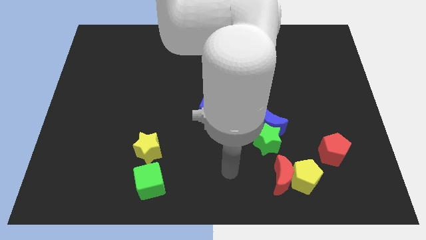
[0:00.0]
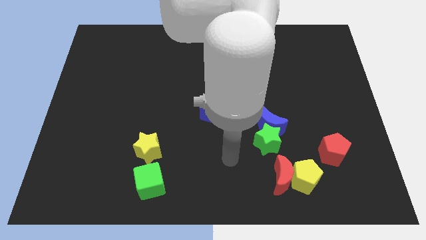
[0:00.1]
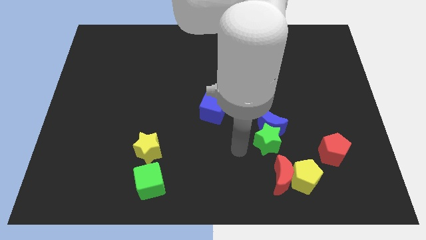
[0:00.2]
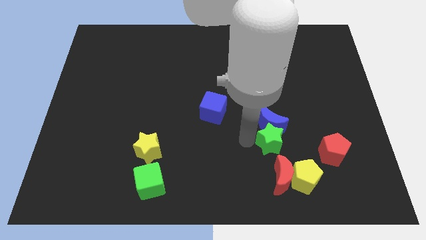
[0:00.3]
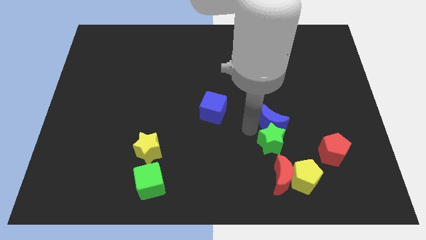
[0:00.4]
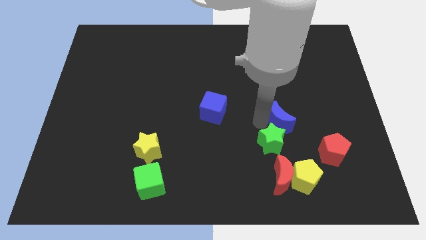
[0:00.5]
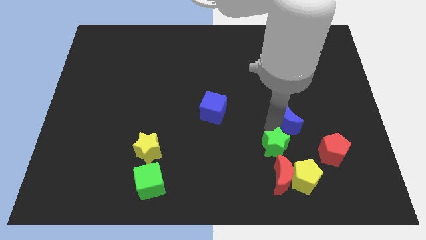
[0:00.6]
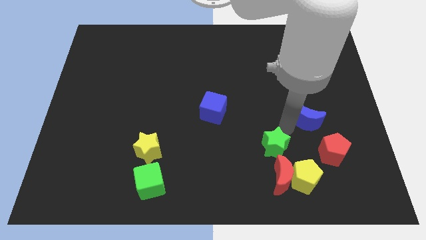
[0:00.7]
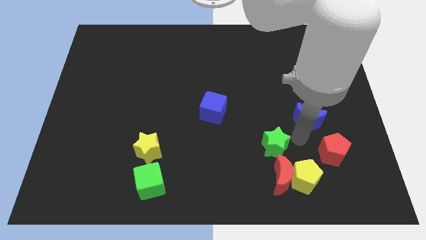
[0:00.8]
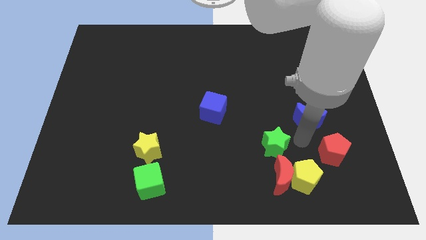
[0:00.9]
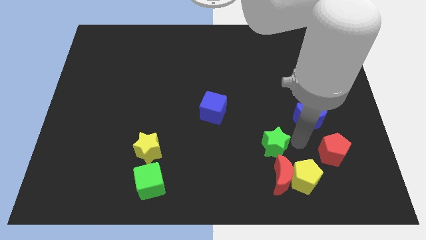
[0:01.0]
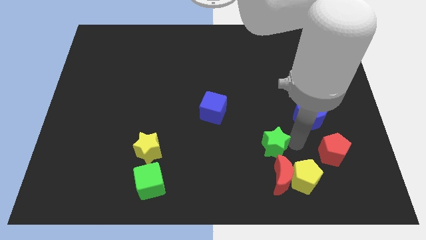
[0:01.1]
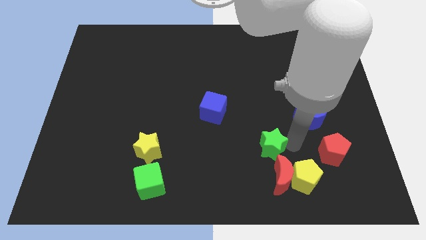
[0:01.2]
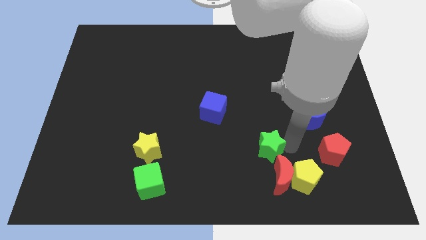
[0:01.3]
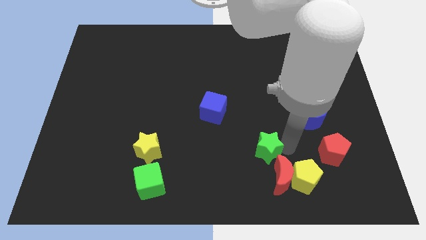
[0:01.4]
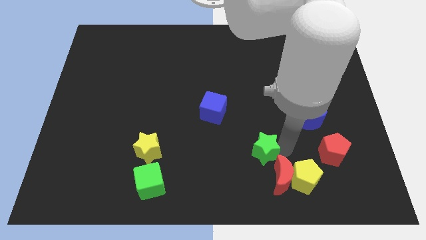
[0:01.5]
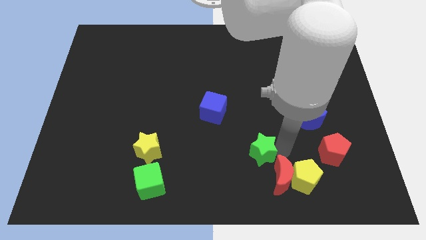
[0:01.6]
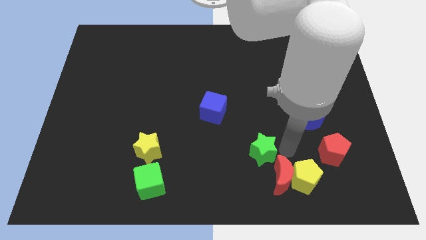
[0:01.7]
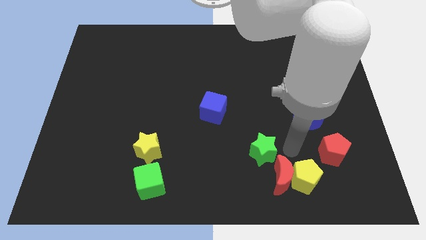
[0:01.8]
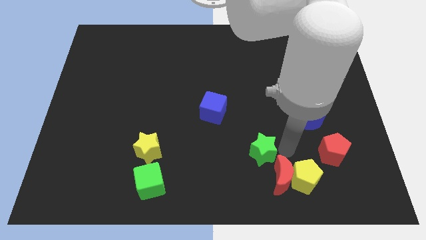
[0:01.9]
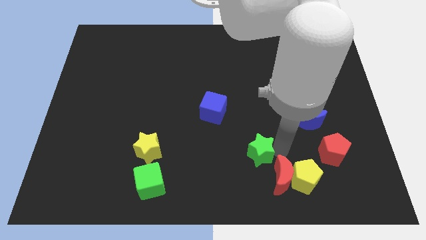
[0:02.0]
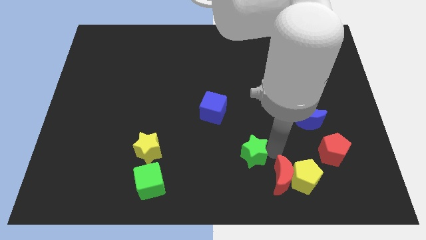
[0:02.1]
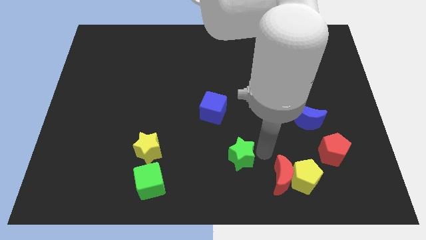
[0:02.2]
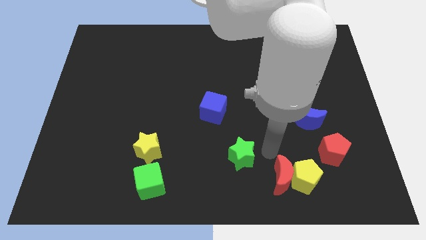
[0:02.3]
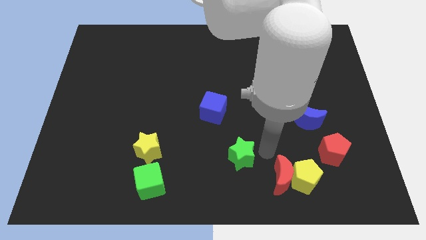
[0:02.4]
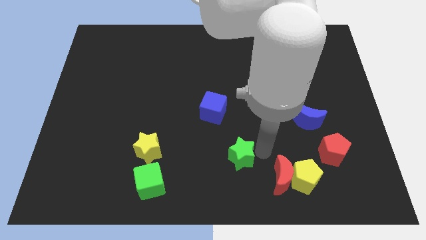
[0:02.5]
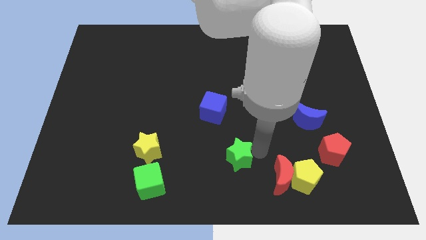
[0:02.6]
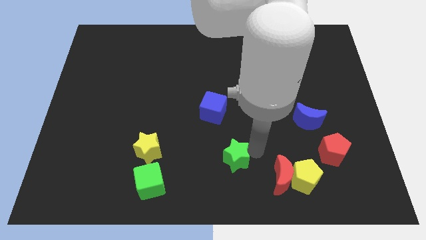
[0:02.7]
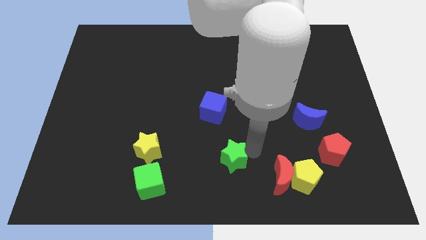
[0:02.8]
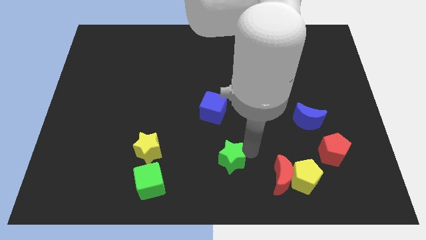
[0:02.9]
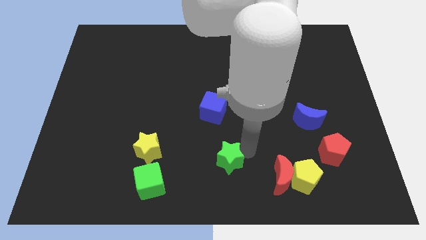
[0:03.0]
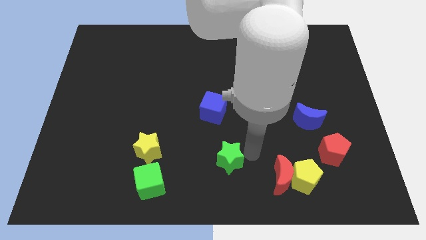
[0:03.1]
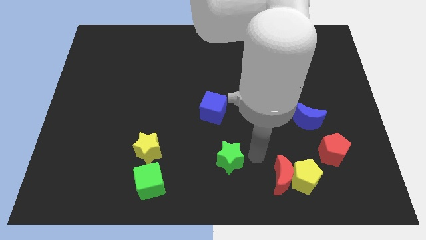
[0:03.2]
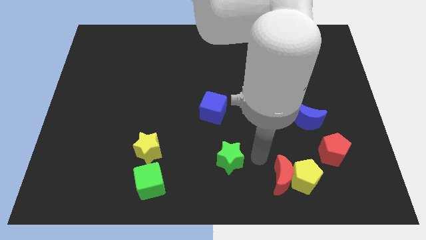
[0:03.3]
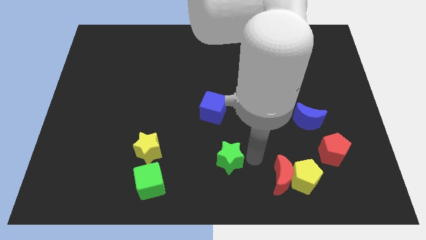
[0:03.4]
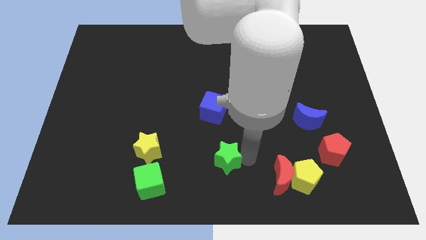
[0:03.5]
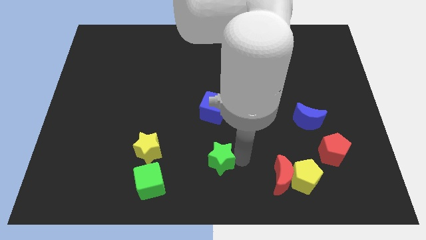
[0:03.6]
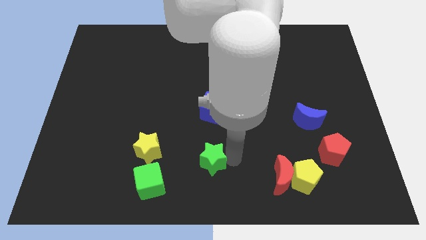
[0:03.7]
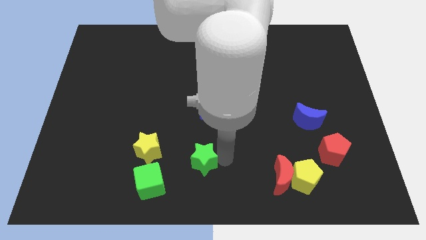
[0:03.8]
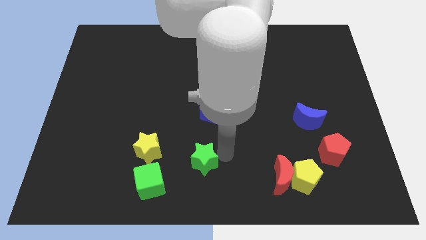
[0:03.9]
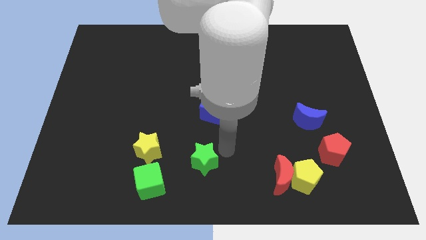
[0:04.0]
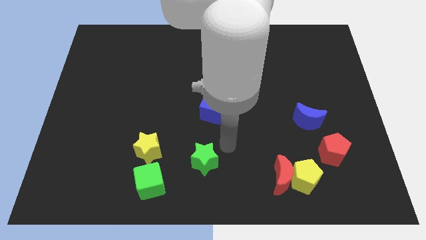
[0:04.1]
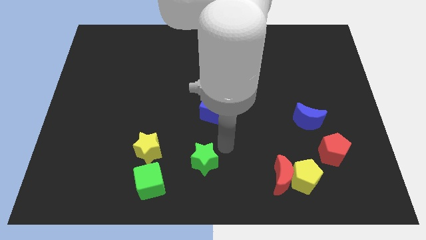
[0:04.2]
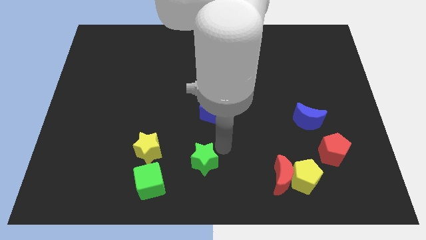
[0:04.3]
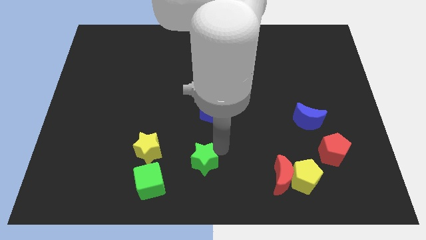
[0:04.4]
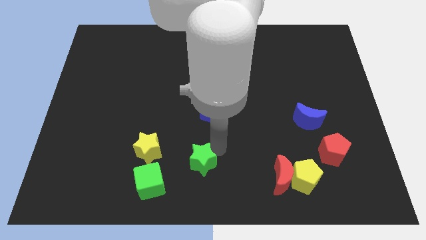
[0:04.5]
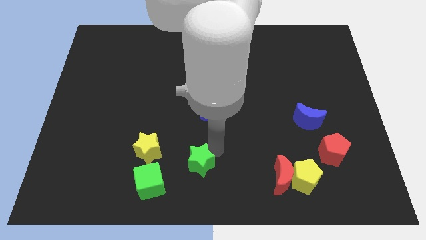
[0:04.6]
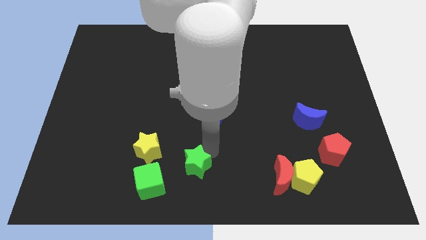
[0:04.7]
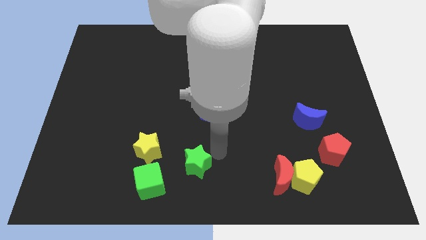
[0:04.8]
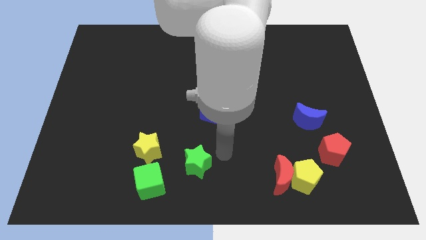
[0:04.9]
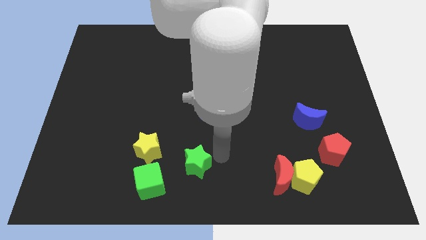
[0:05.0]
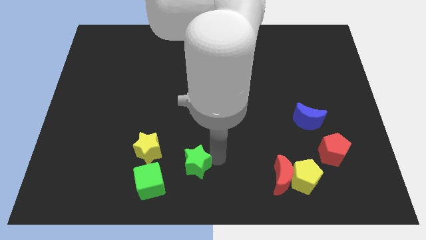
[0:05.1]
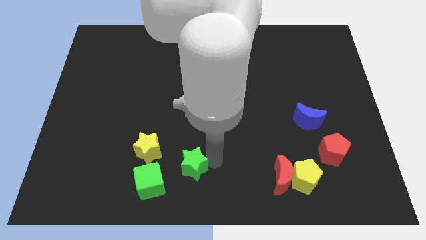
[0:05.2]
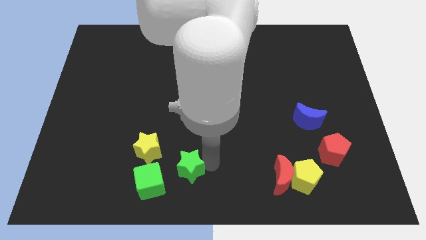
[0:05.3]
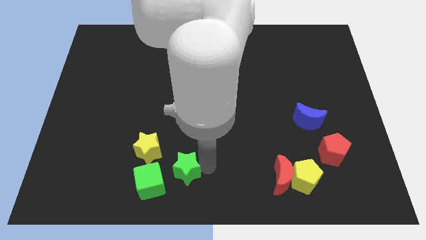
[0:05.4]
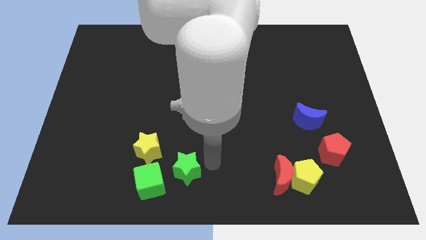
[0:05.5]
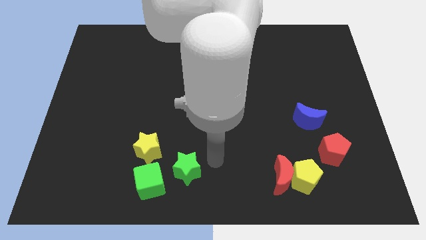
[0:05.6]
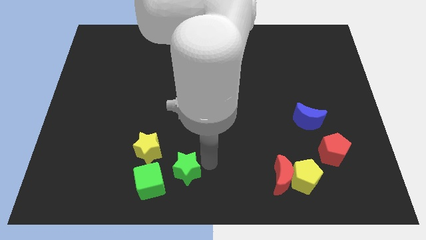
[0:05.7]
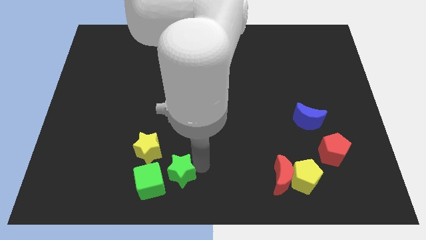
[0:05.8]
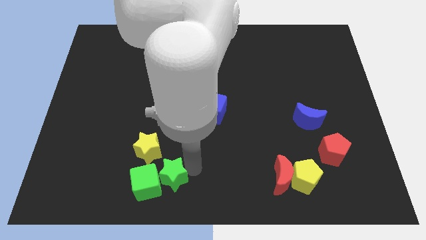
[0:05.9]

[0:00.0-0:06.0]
slide the green star next to the green cube

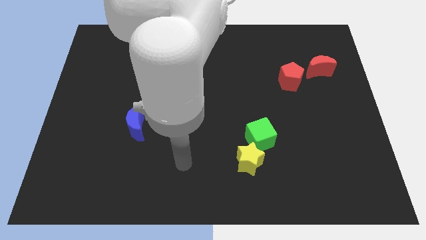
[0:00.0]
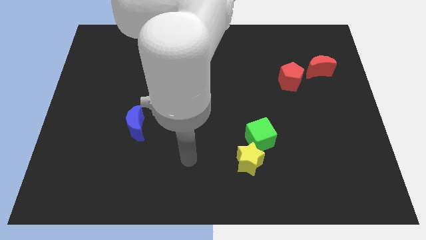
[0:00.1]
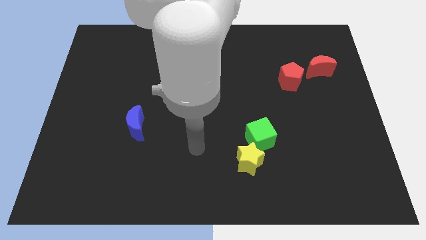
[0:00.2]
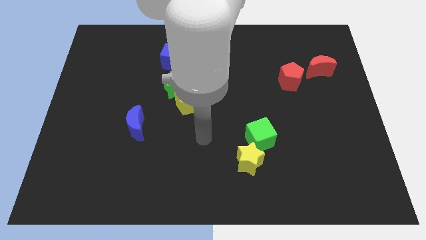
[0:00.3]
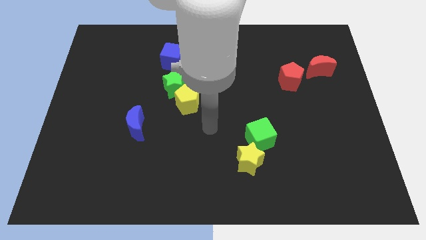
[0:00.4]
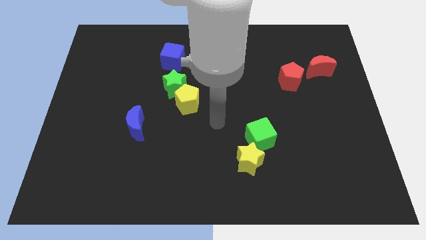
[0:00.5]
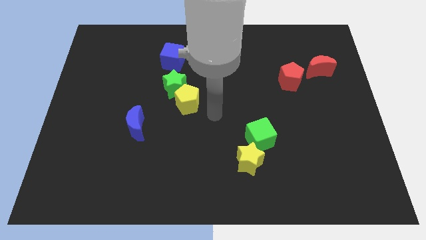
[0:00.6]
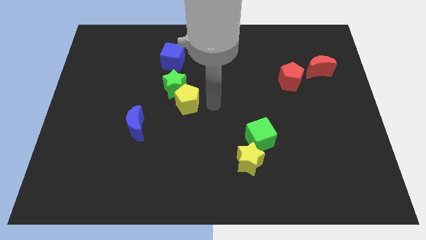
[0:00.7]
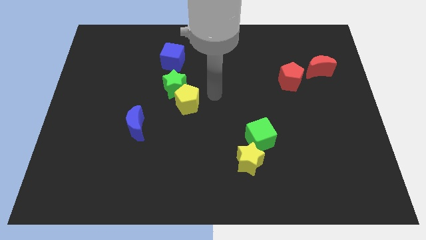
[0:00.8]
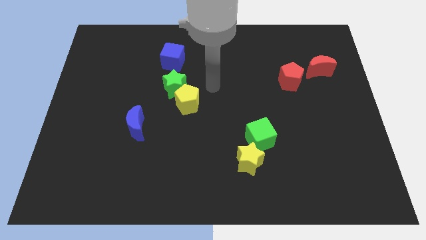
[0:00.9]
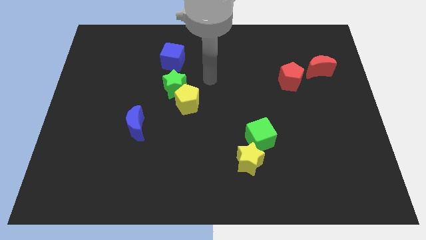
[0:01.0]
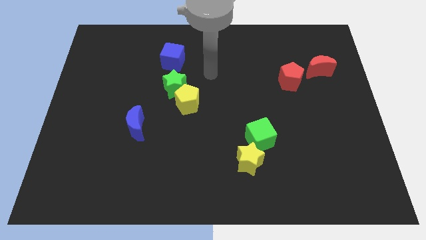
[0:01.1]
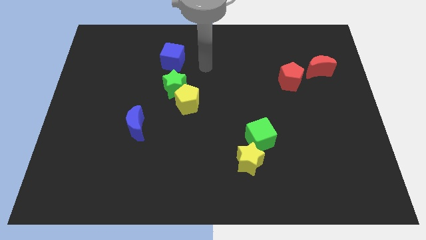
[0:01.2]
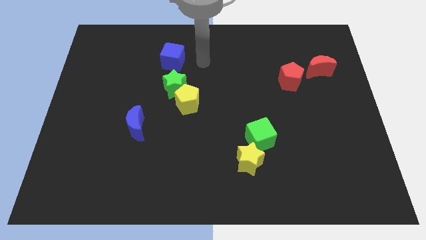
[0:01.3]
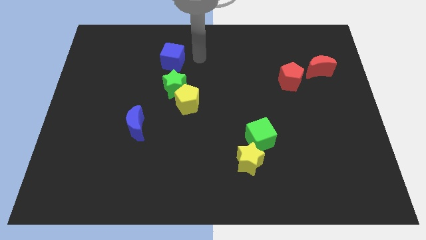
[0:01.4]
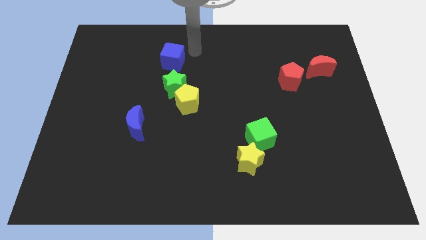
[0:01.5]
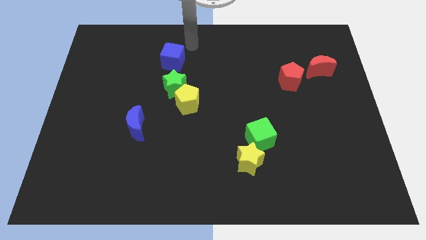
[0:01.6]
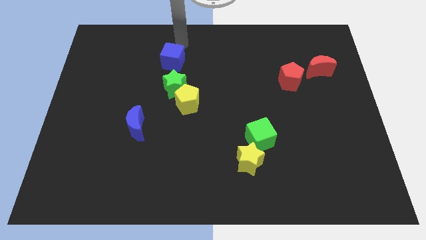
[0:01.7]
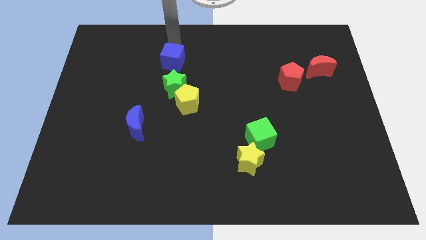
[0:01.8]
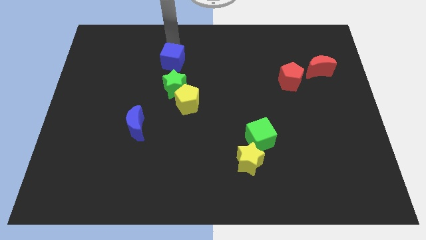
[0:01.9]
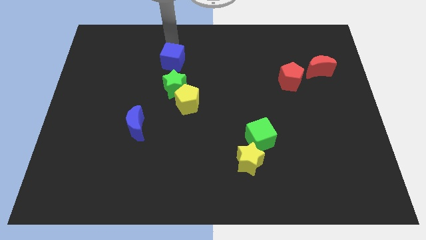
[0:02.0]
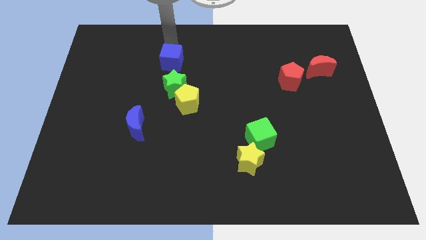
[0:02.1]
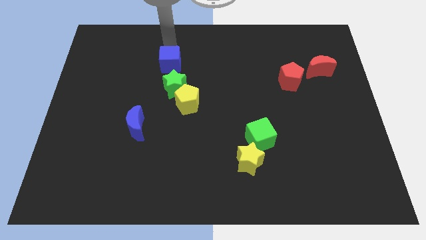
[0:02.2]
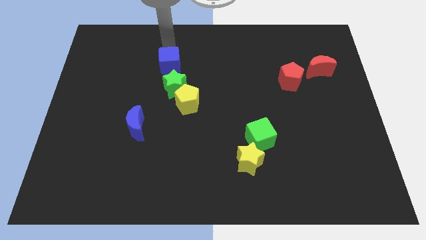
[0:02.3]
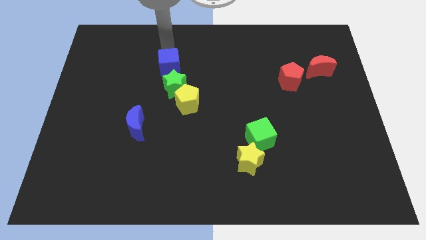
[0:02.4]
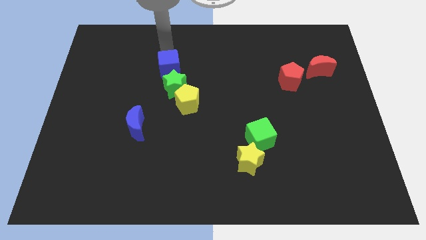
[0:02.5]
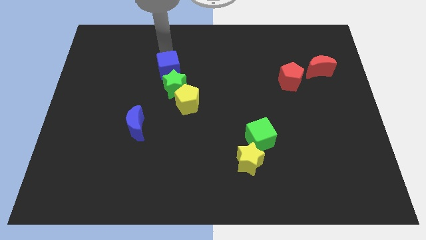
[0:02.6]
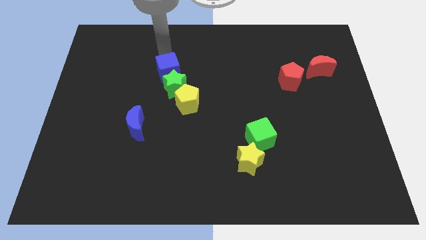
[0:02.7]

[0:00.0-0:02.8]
put the blue cube towards the green star
